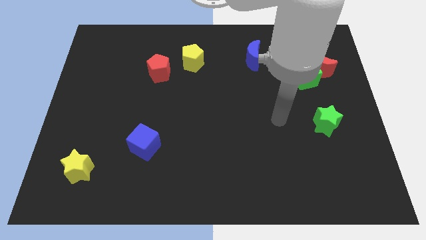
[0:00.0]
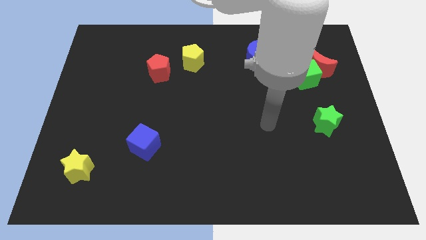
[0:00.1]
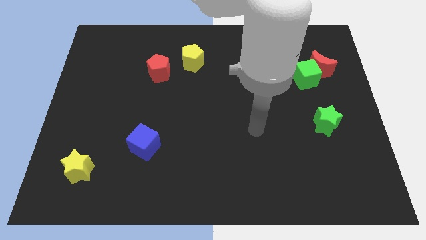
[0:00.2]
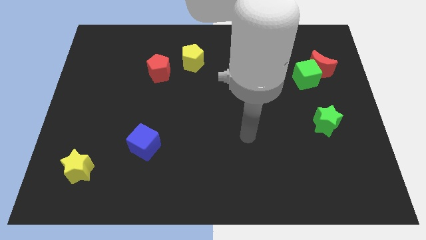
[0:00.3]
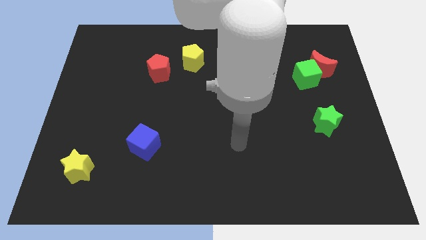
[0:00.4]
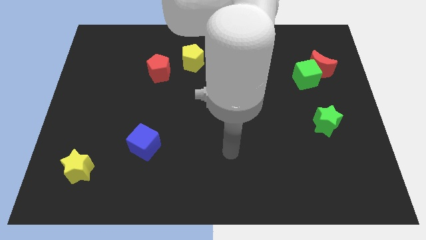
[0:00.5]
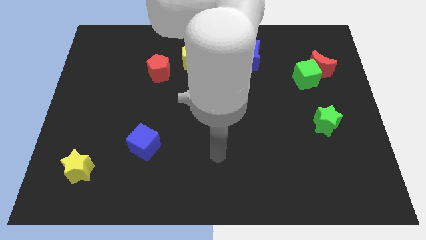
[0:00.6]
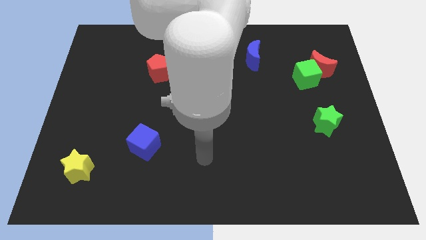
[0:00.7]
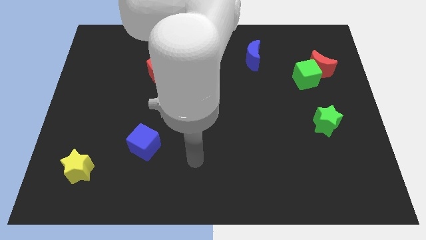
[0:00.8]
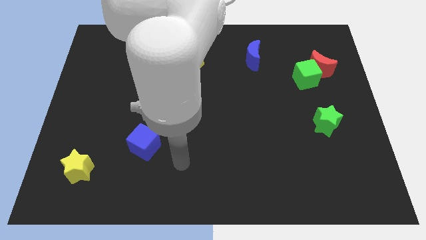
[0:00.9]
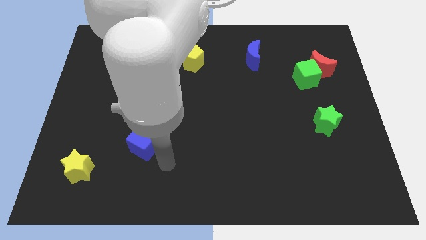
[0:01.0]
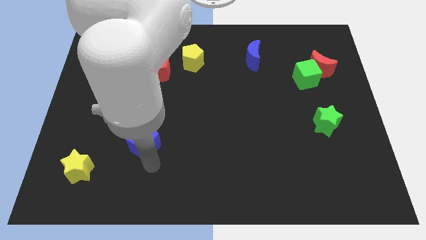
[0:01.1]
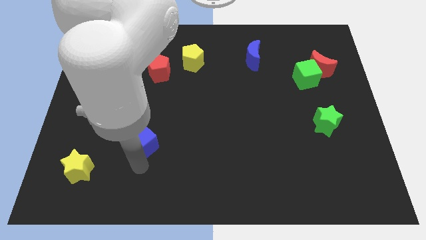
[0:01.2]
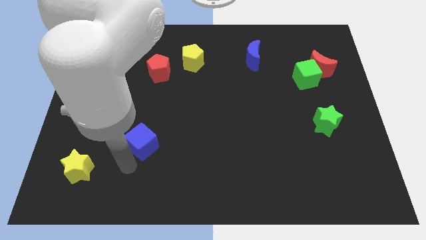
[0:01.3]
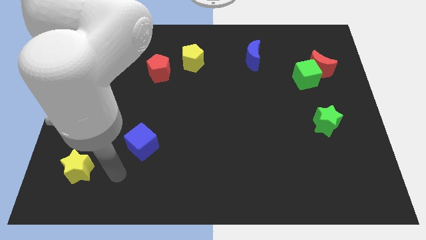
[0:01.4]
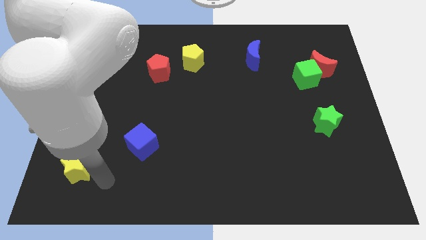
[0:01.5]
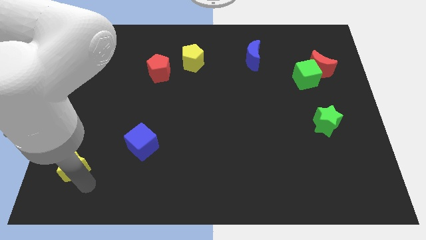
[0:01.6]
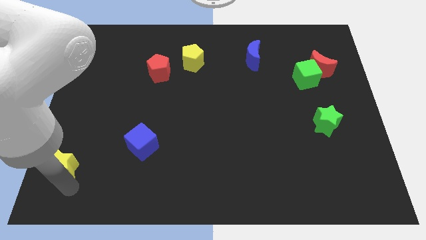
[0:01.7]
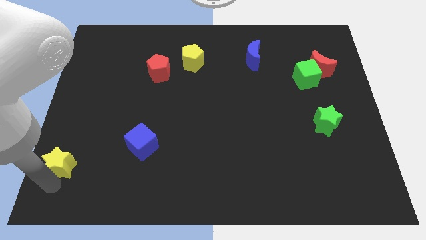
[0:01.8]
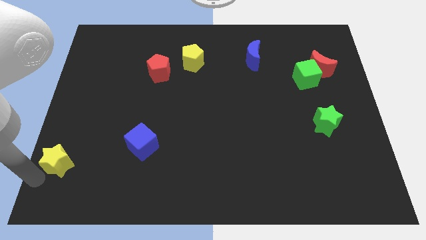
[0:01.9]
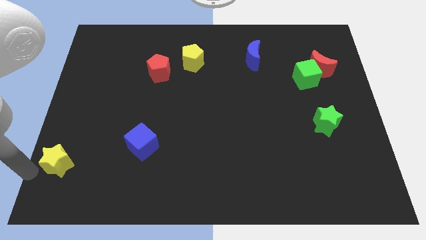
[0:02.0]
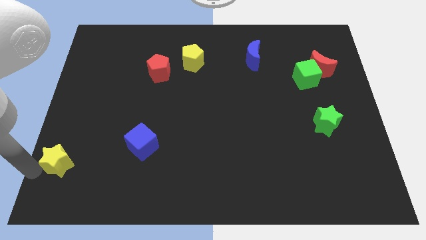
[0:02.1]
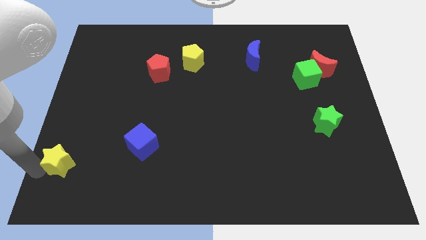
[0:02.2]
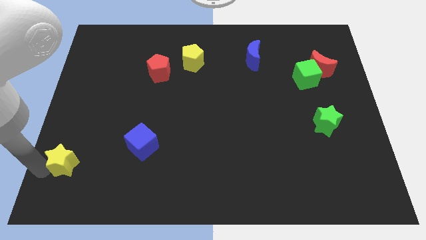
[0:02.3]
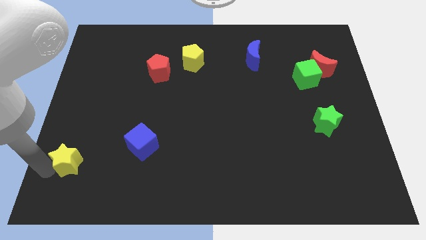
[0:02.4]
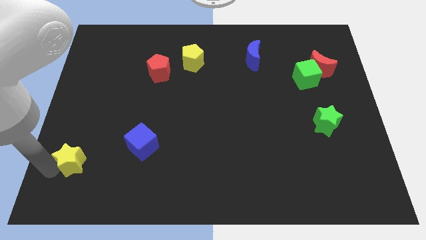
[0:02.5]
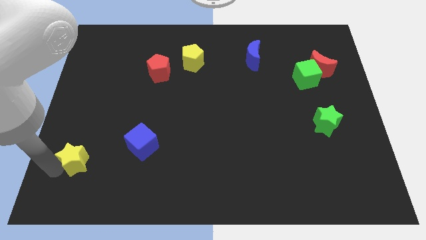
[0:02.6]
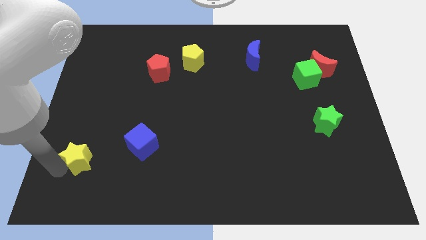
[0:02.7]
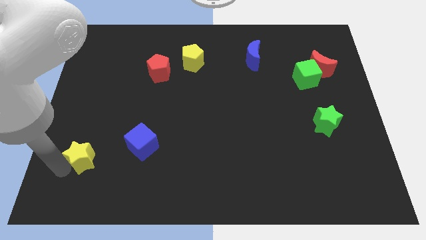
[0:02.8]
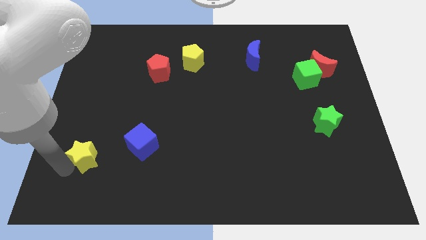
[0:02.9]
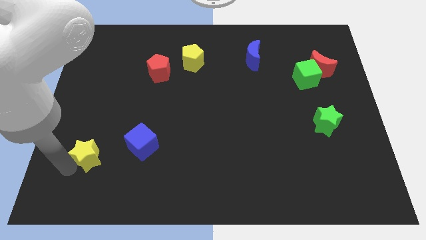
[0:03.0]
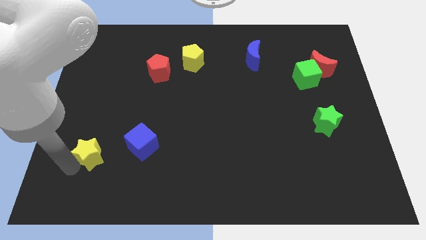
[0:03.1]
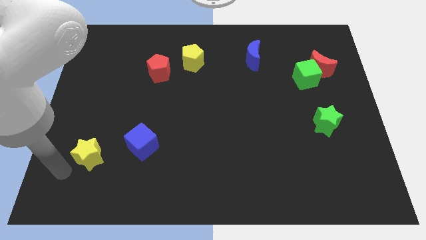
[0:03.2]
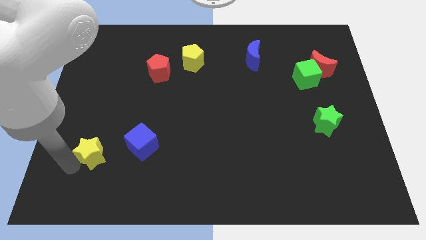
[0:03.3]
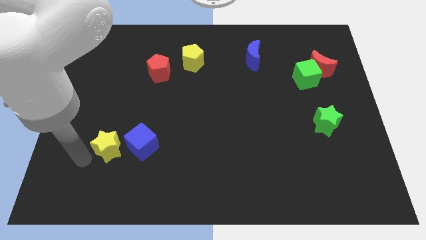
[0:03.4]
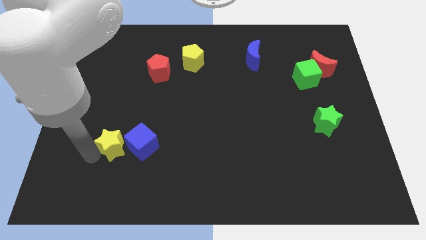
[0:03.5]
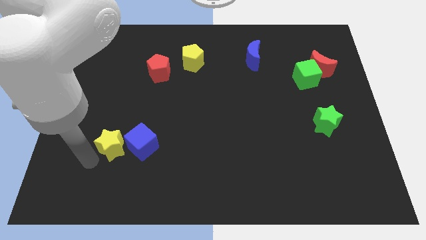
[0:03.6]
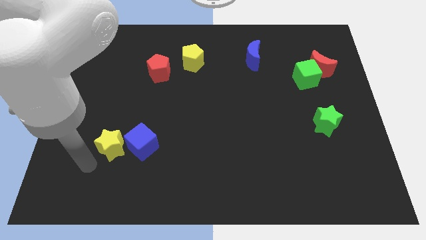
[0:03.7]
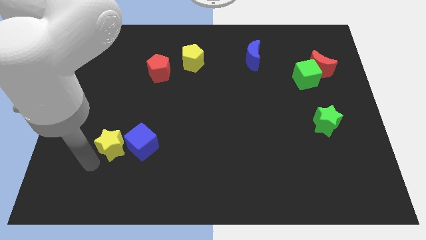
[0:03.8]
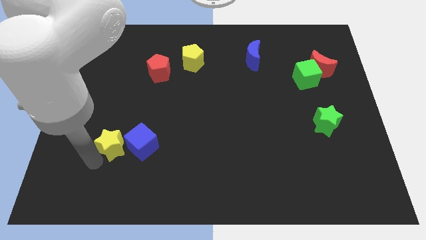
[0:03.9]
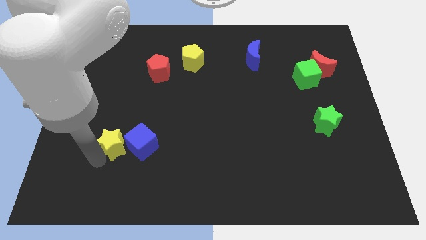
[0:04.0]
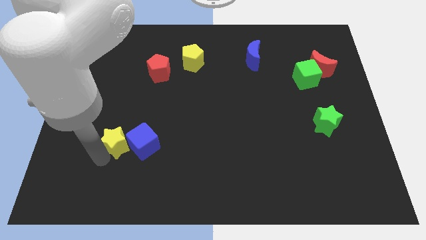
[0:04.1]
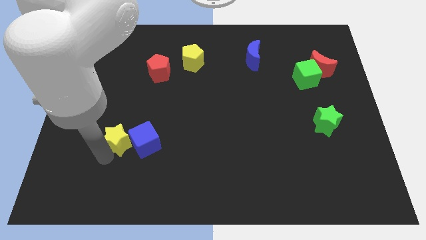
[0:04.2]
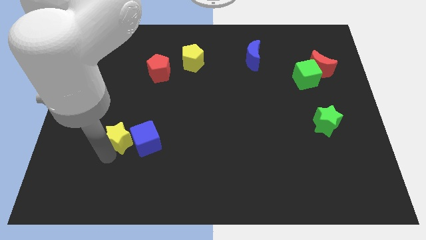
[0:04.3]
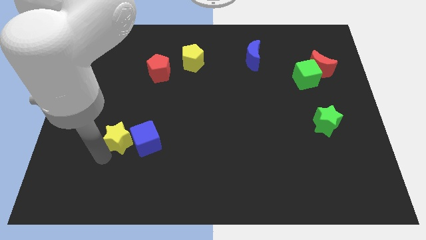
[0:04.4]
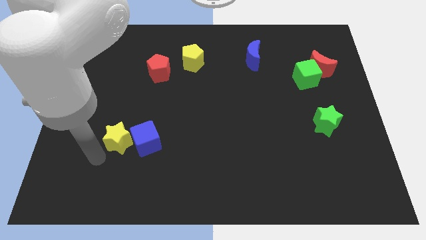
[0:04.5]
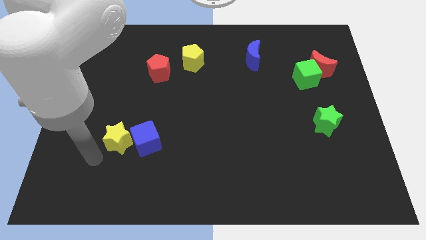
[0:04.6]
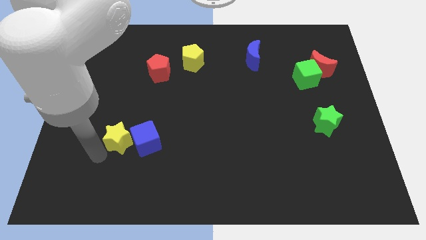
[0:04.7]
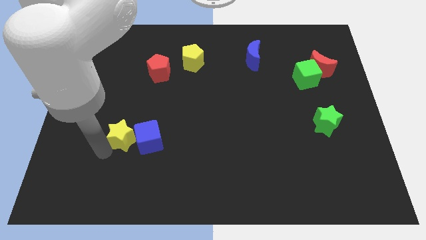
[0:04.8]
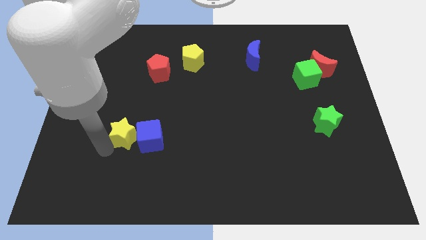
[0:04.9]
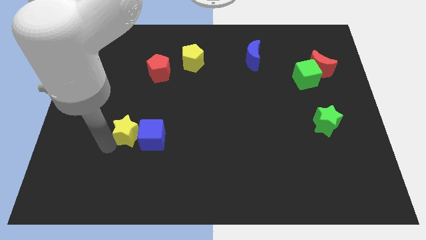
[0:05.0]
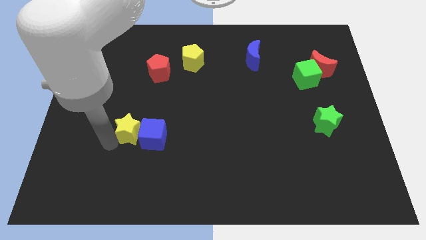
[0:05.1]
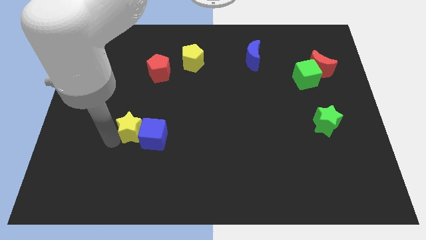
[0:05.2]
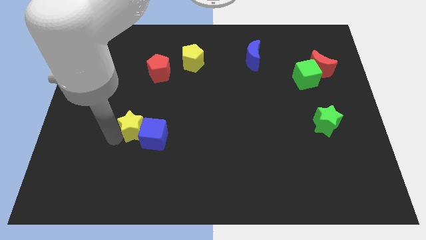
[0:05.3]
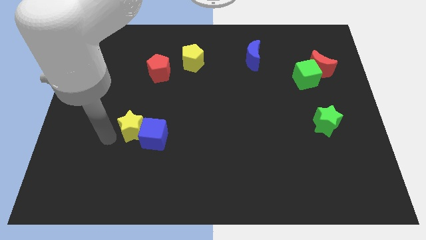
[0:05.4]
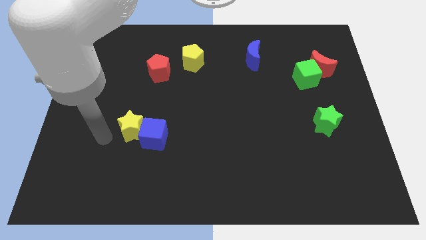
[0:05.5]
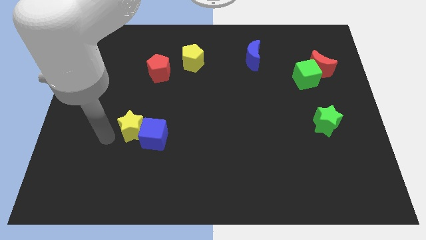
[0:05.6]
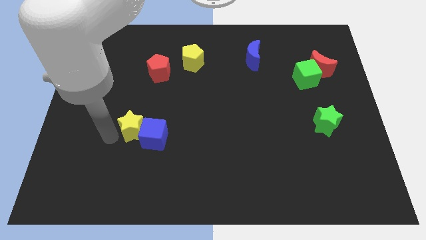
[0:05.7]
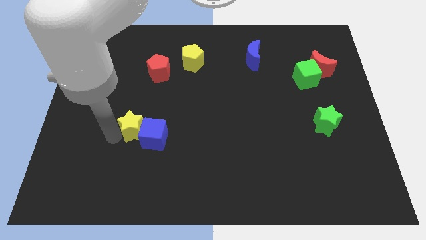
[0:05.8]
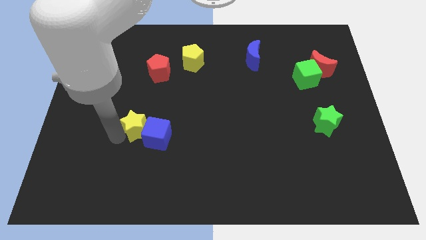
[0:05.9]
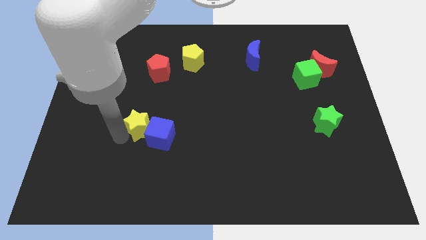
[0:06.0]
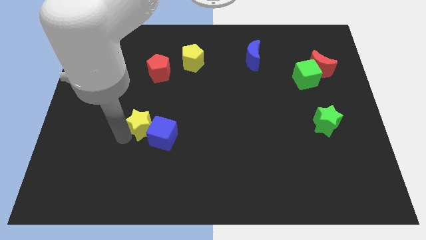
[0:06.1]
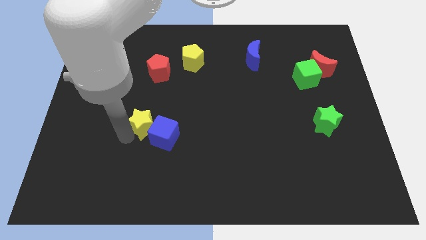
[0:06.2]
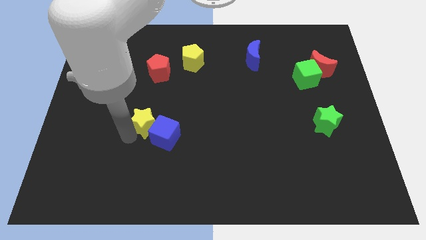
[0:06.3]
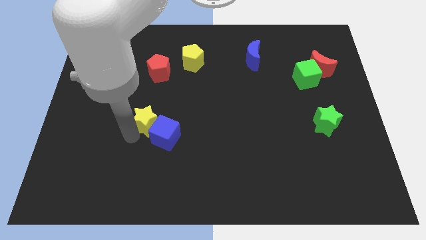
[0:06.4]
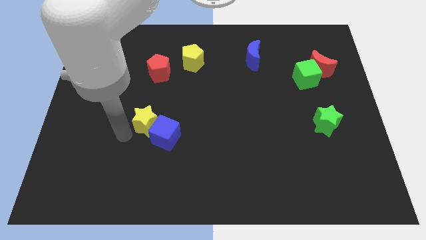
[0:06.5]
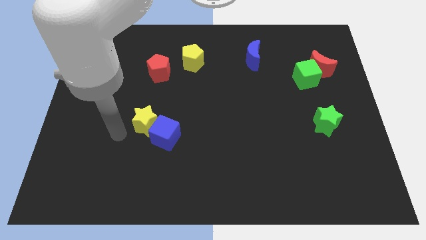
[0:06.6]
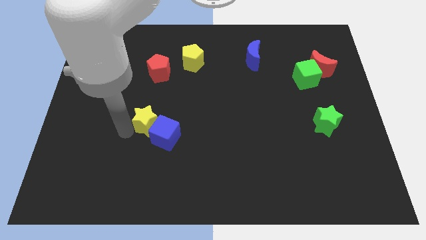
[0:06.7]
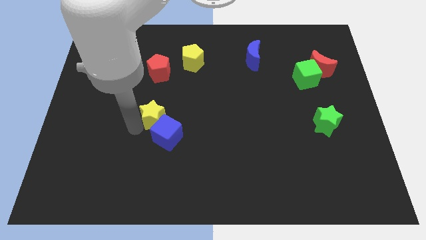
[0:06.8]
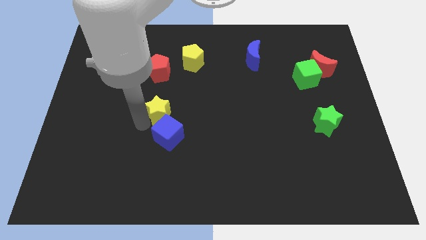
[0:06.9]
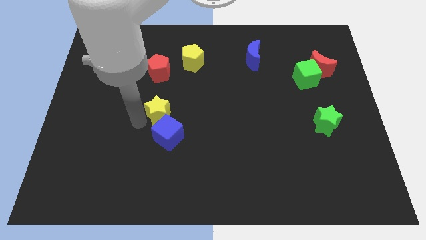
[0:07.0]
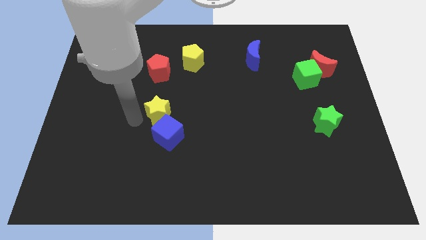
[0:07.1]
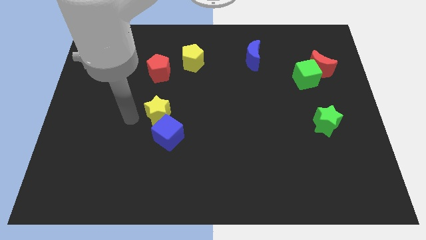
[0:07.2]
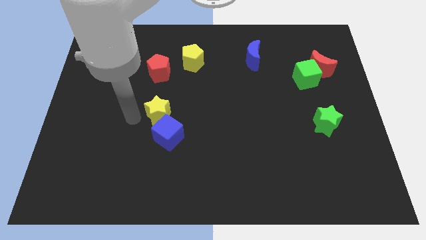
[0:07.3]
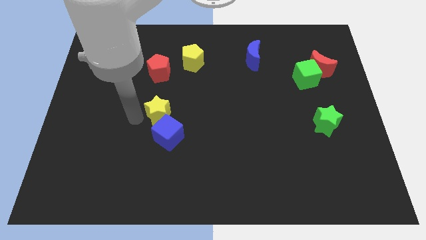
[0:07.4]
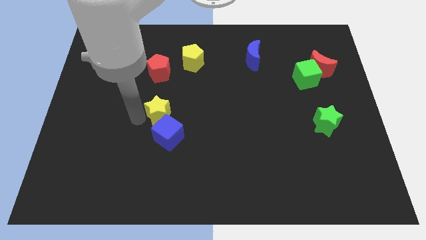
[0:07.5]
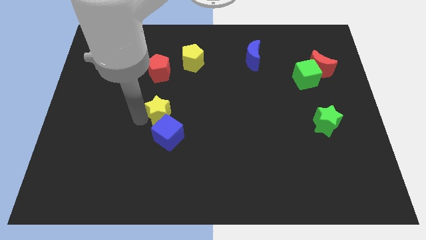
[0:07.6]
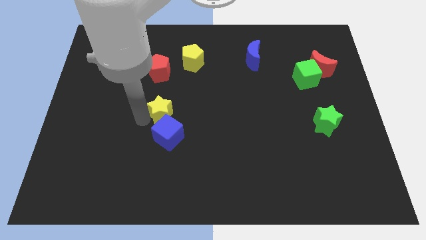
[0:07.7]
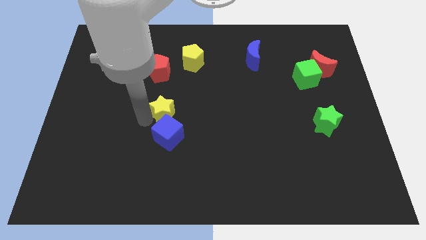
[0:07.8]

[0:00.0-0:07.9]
move the yellow star to the center
